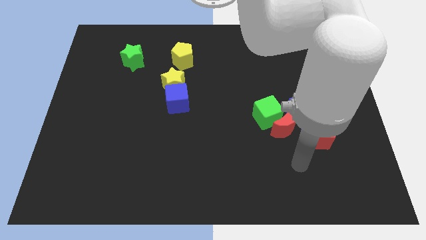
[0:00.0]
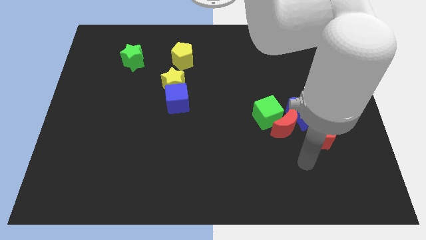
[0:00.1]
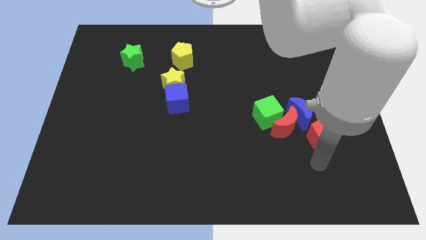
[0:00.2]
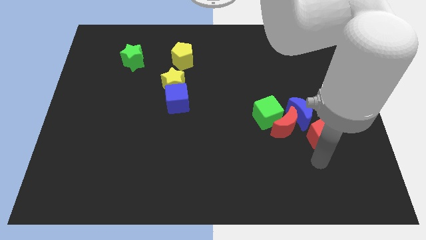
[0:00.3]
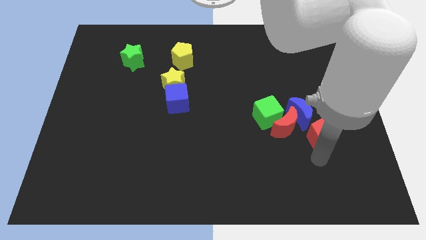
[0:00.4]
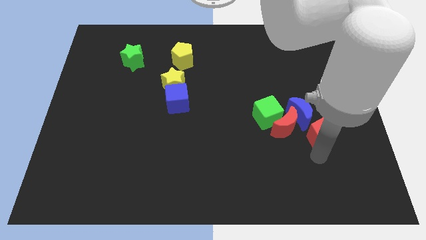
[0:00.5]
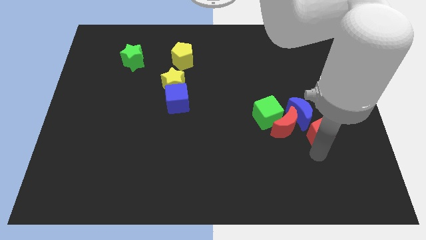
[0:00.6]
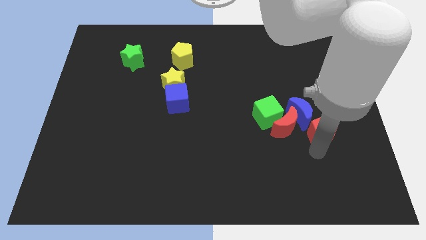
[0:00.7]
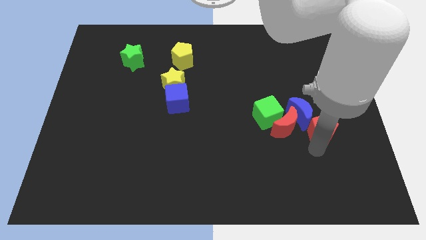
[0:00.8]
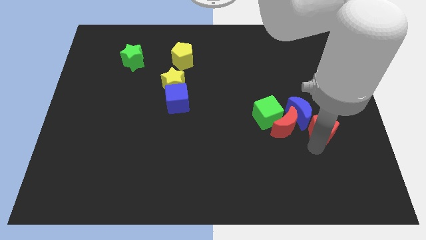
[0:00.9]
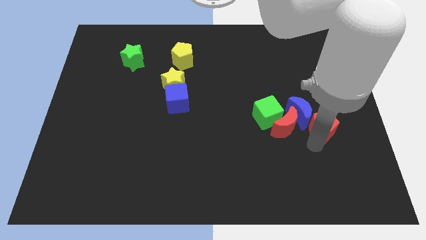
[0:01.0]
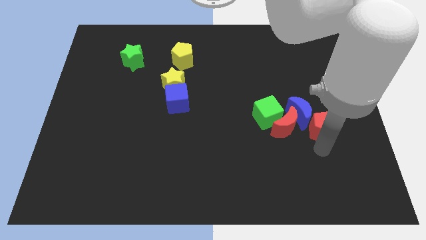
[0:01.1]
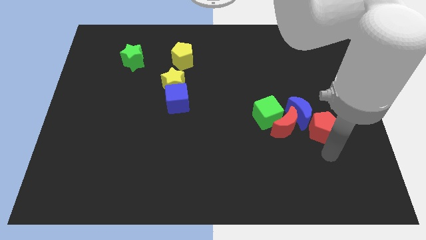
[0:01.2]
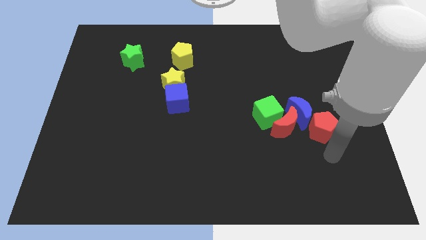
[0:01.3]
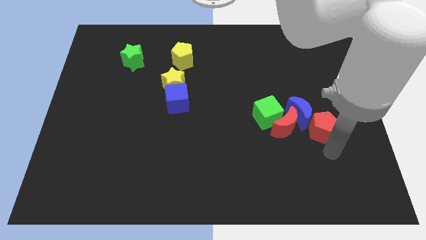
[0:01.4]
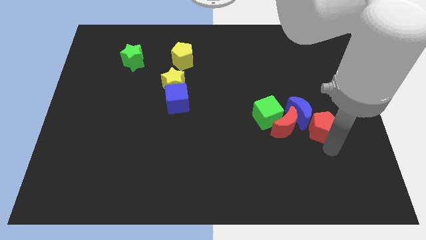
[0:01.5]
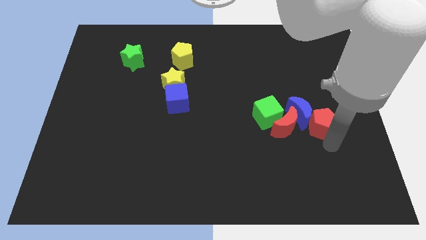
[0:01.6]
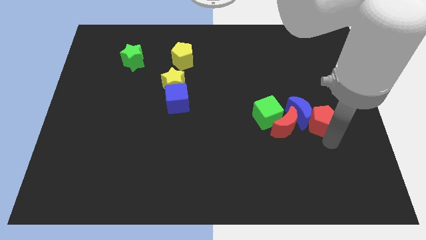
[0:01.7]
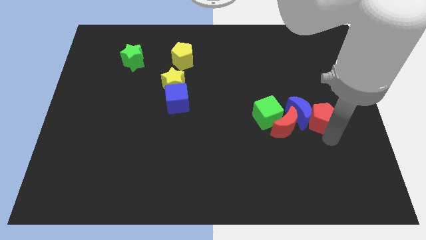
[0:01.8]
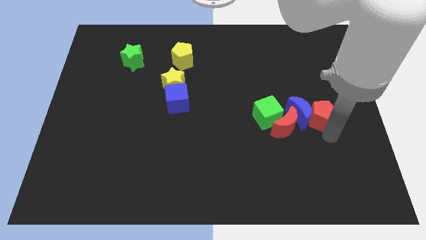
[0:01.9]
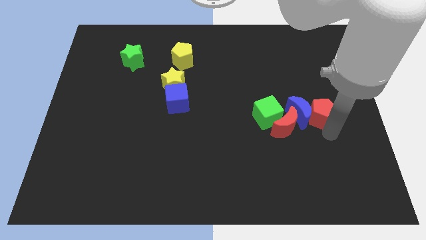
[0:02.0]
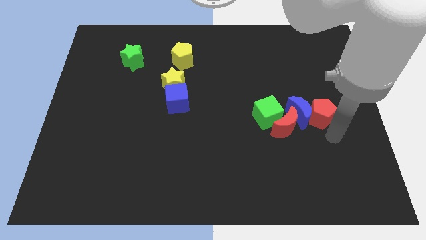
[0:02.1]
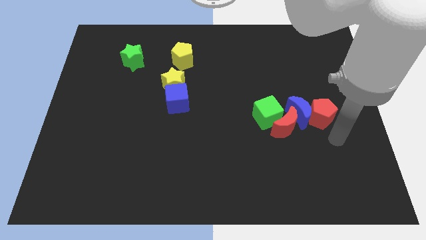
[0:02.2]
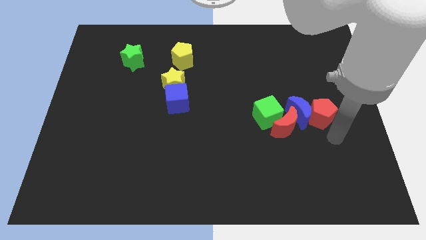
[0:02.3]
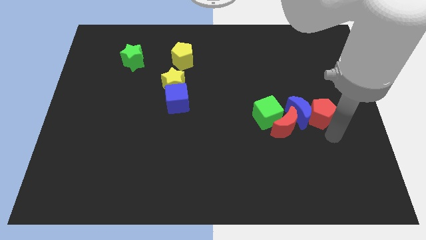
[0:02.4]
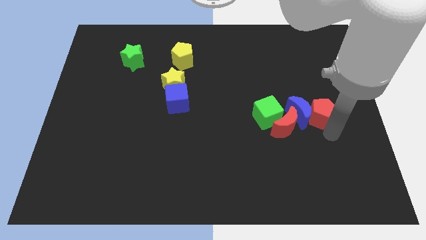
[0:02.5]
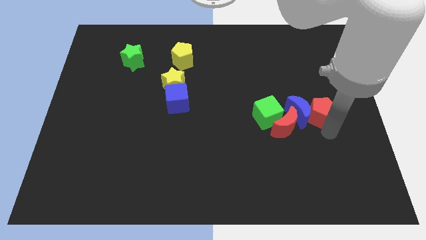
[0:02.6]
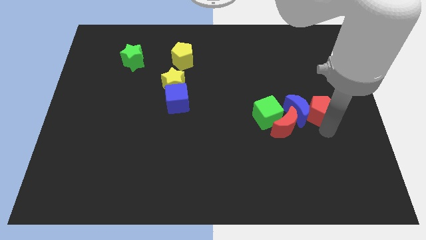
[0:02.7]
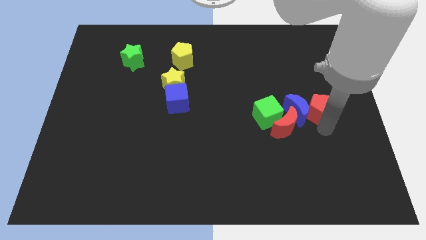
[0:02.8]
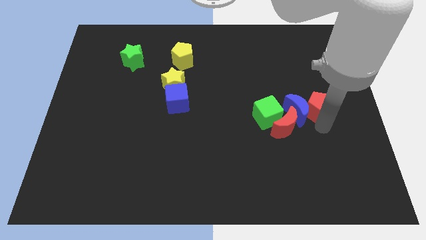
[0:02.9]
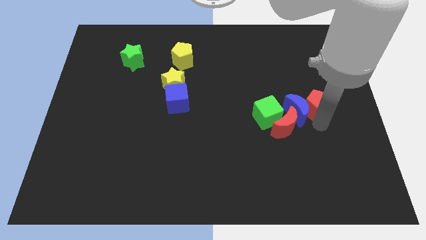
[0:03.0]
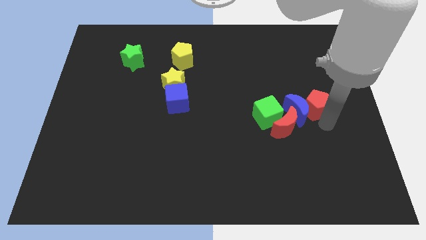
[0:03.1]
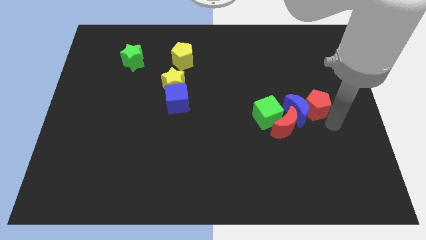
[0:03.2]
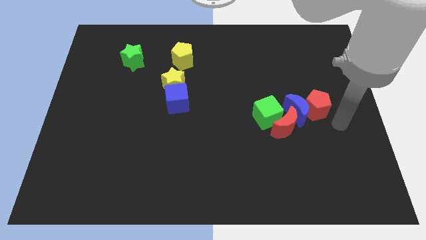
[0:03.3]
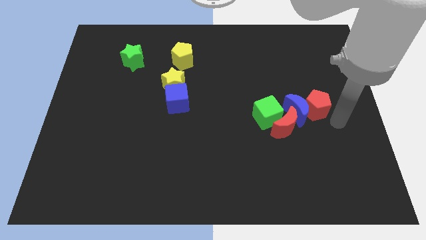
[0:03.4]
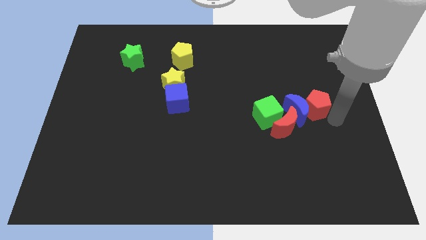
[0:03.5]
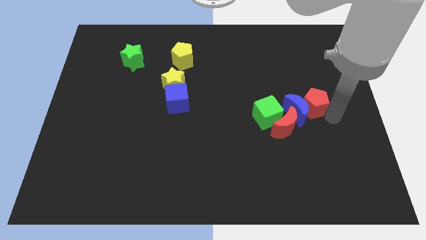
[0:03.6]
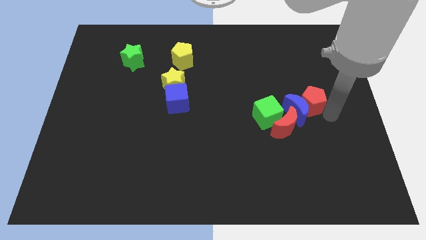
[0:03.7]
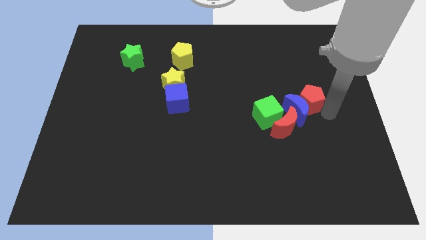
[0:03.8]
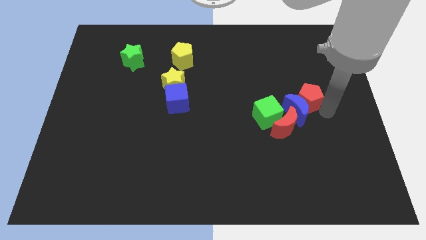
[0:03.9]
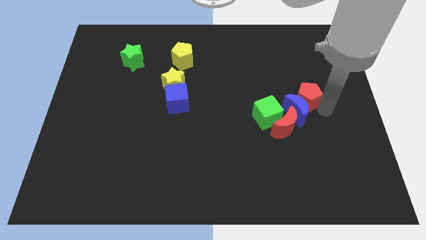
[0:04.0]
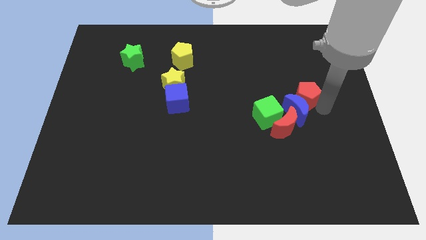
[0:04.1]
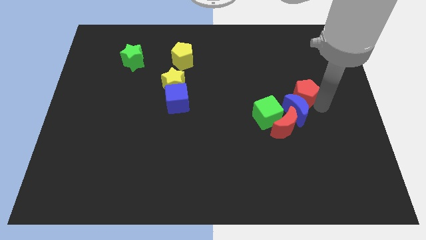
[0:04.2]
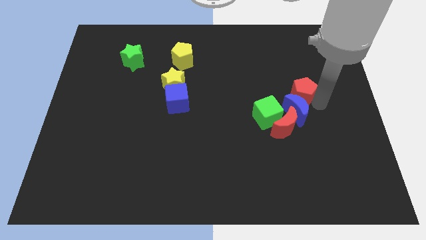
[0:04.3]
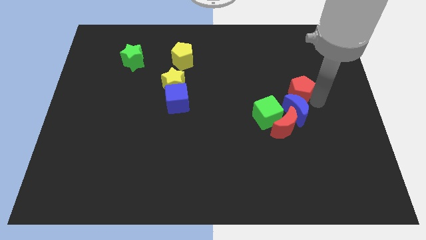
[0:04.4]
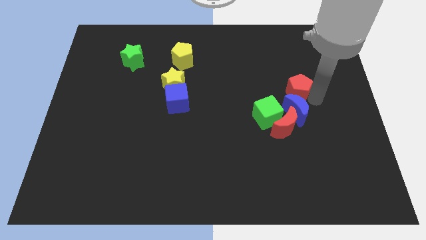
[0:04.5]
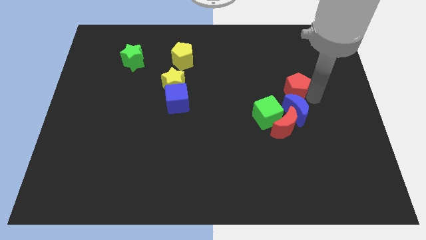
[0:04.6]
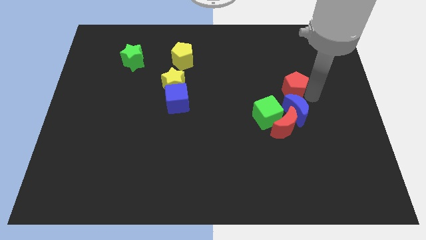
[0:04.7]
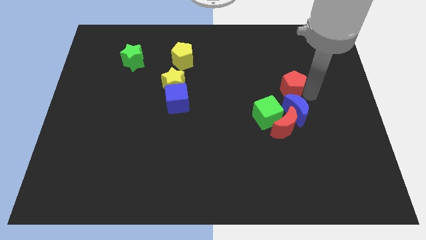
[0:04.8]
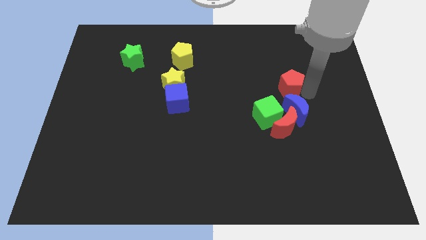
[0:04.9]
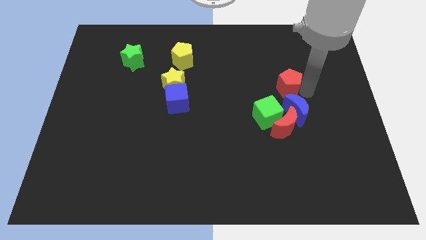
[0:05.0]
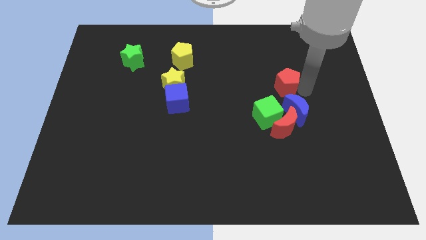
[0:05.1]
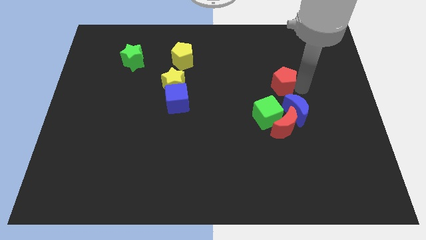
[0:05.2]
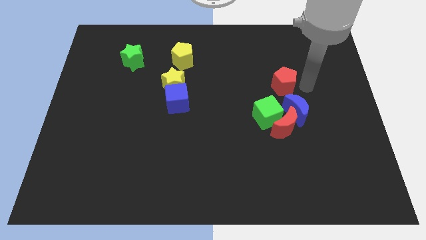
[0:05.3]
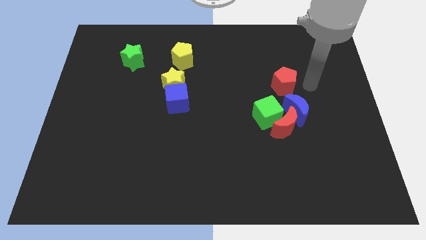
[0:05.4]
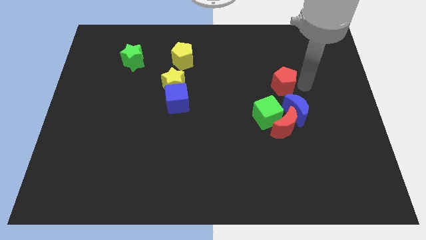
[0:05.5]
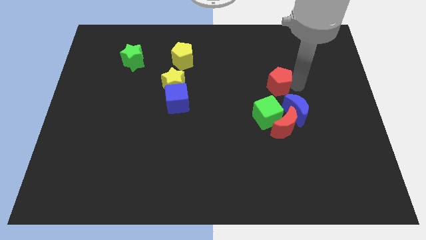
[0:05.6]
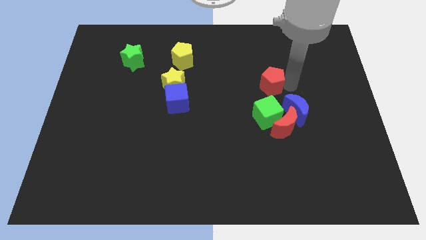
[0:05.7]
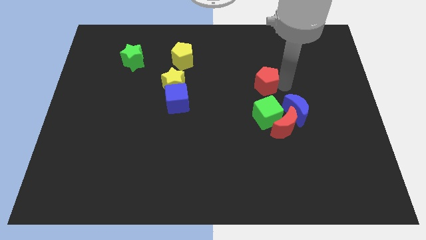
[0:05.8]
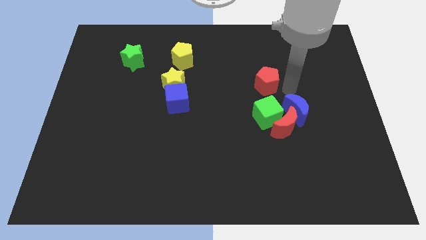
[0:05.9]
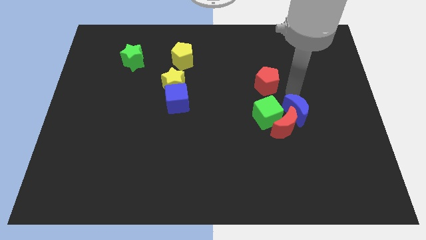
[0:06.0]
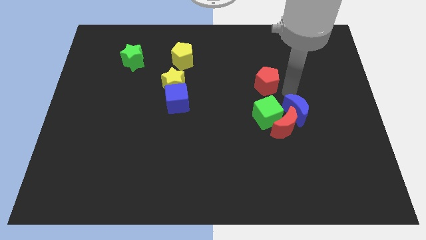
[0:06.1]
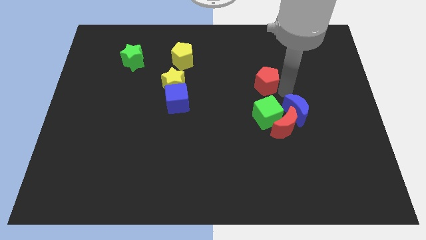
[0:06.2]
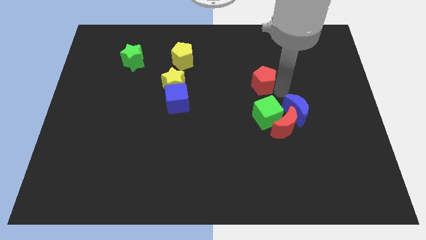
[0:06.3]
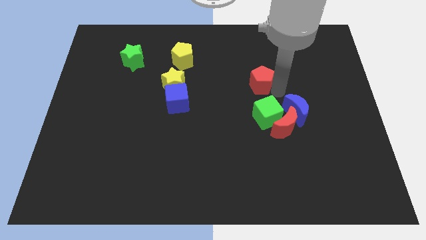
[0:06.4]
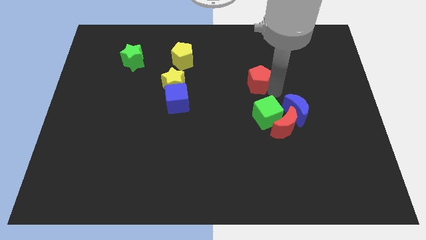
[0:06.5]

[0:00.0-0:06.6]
slide the red pentagon up and left diagonally

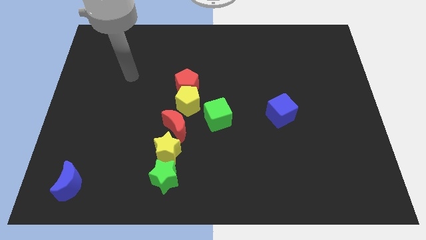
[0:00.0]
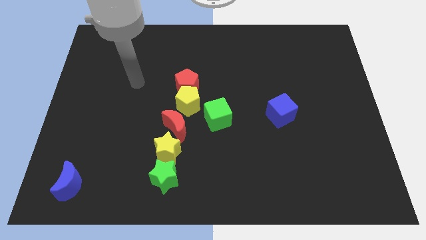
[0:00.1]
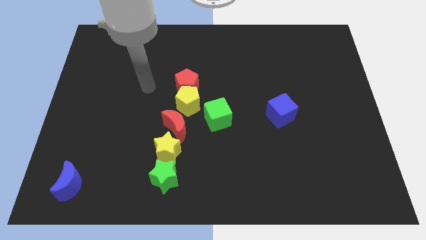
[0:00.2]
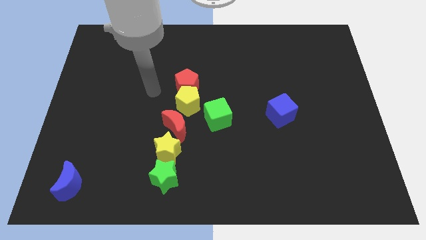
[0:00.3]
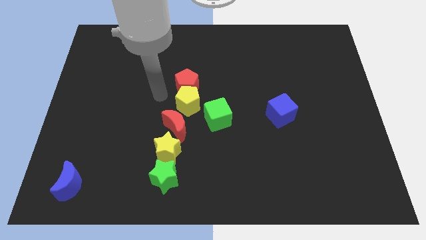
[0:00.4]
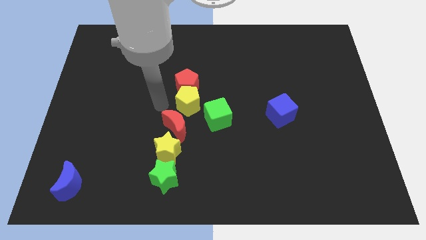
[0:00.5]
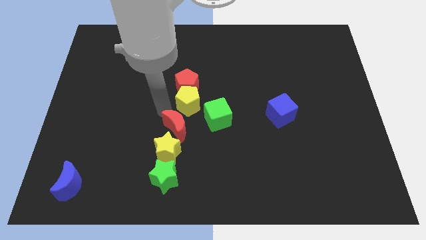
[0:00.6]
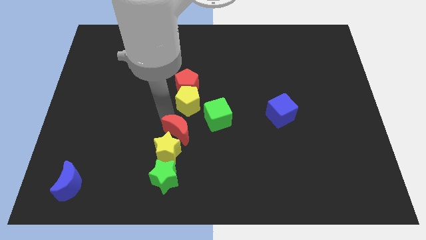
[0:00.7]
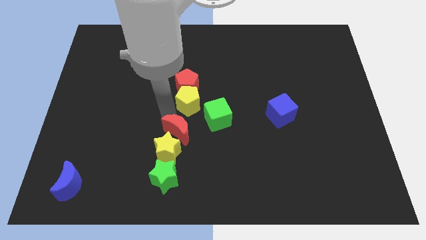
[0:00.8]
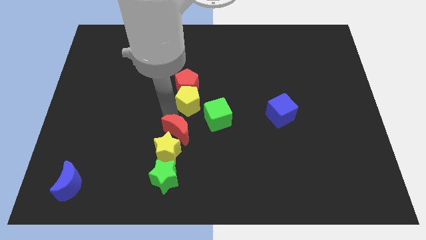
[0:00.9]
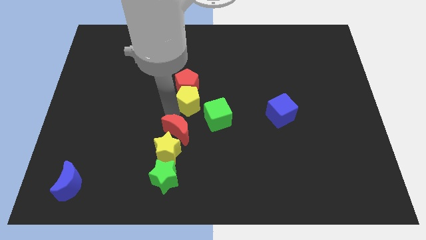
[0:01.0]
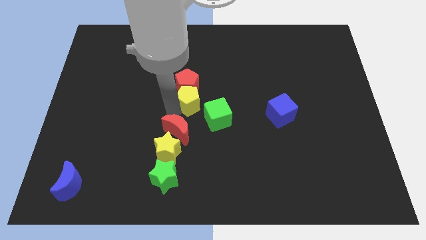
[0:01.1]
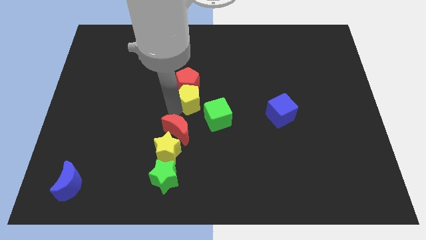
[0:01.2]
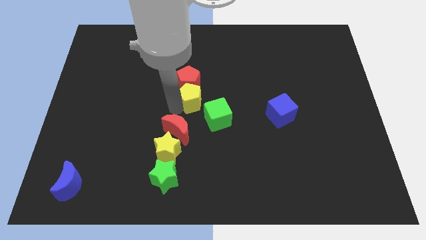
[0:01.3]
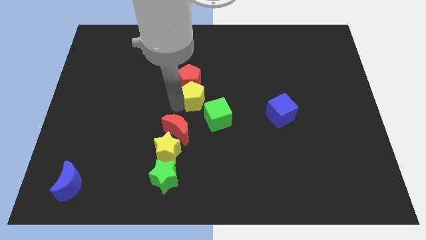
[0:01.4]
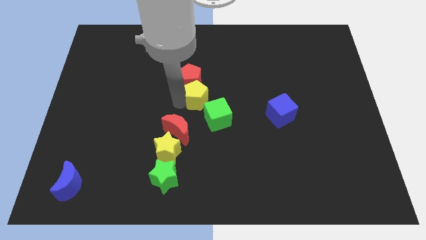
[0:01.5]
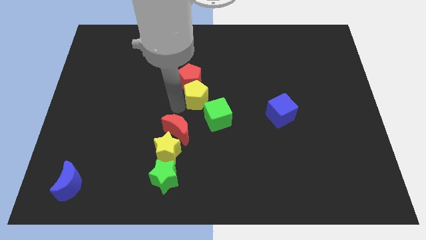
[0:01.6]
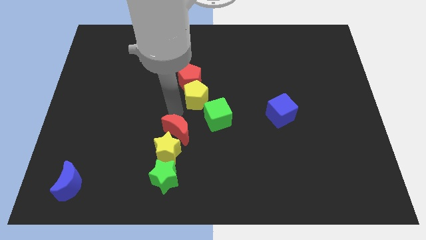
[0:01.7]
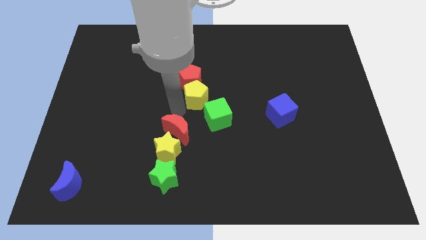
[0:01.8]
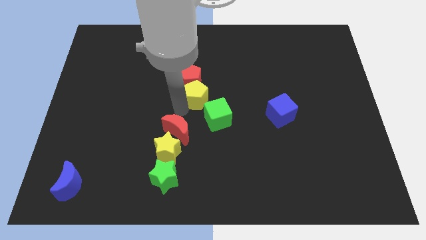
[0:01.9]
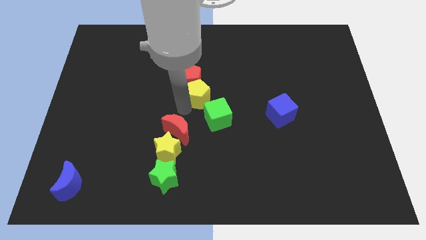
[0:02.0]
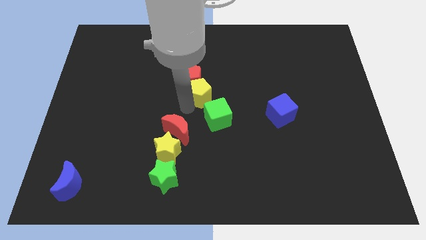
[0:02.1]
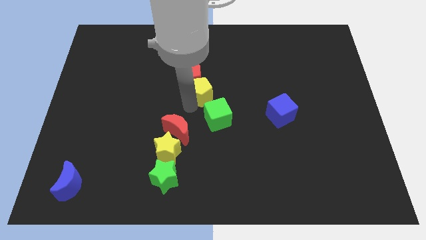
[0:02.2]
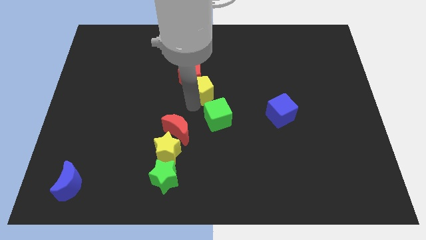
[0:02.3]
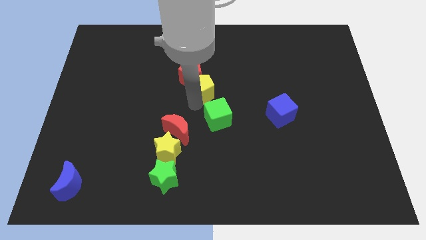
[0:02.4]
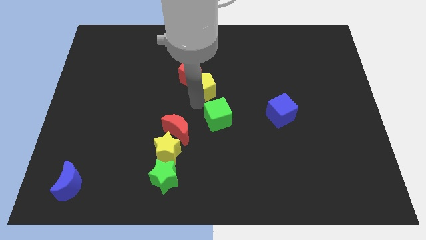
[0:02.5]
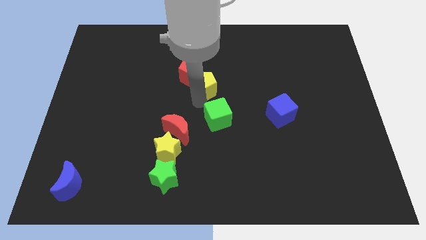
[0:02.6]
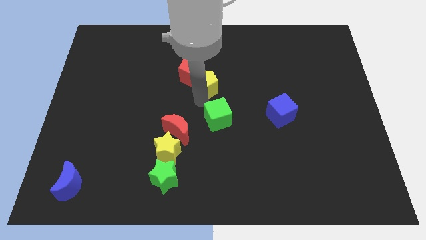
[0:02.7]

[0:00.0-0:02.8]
push the yellow pentagon slightly upwards and to the right diagonally
